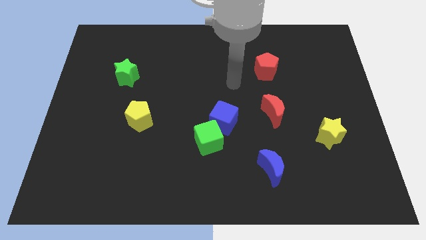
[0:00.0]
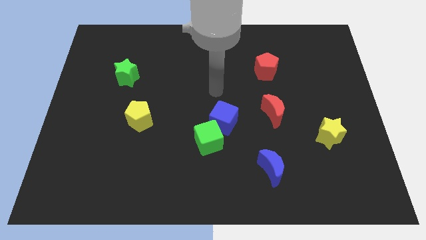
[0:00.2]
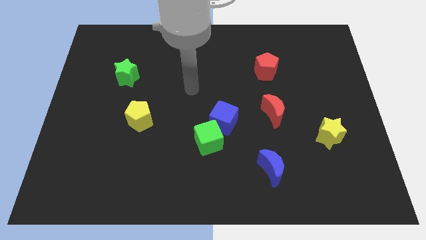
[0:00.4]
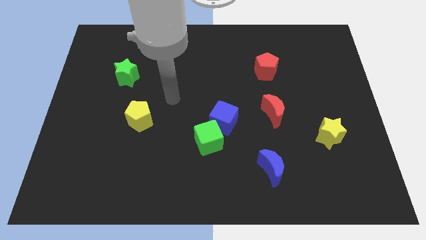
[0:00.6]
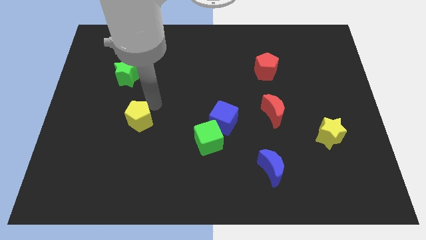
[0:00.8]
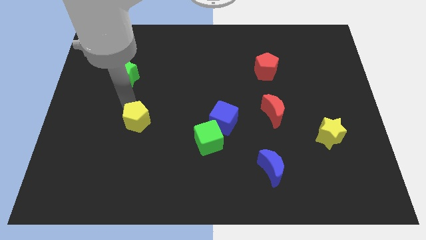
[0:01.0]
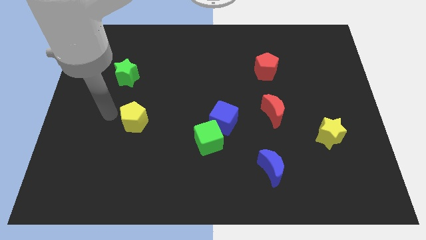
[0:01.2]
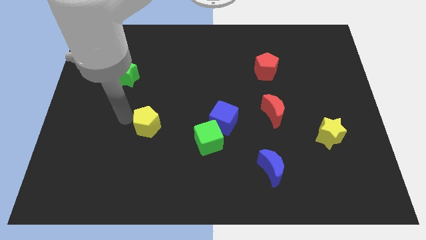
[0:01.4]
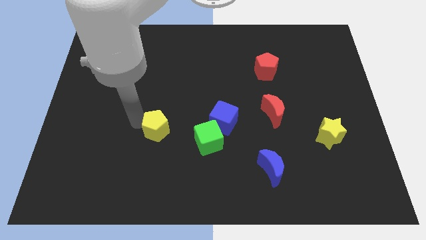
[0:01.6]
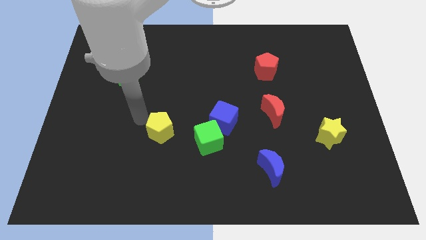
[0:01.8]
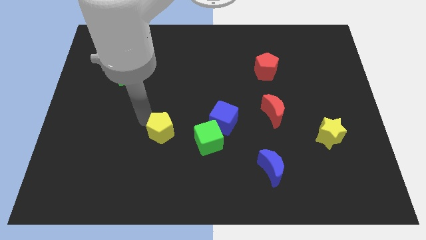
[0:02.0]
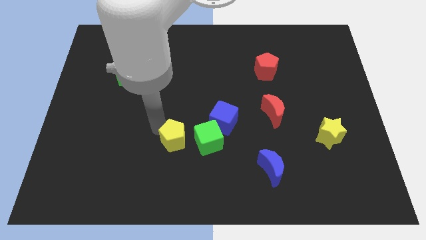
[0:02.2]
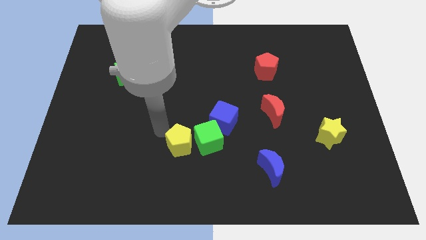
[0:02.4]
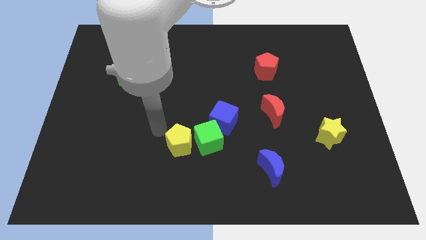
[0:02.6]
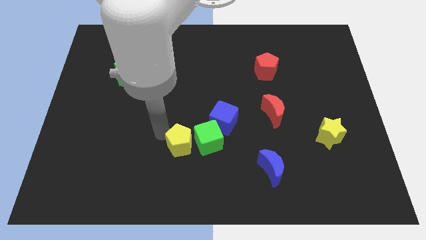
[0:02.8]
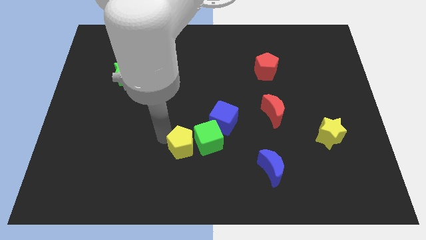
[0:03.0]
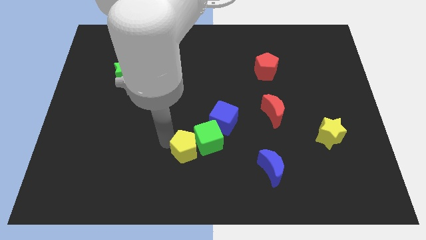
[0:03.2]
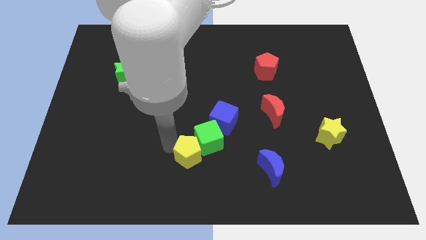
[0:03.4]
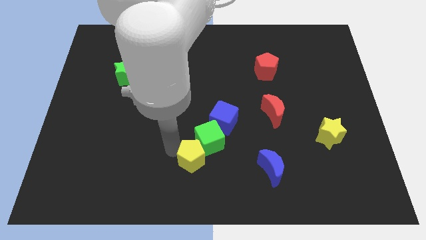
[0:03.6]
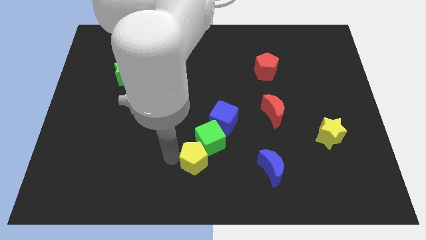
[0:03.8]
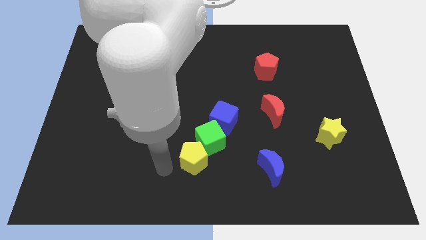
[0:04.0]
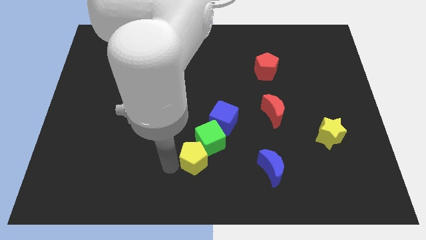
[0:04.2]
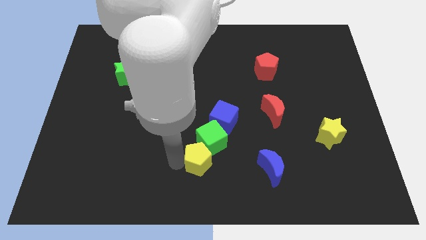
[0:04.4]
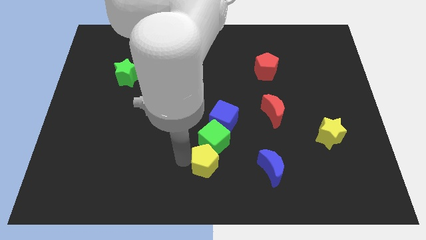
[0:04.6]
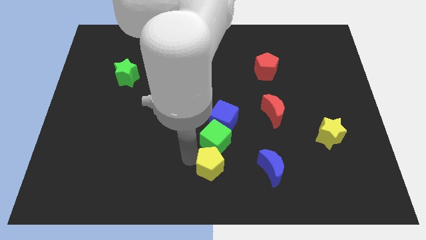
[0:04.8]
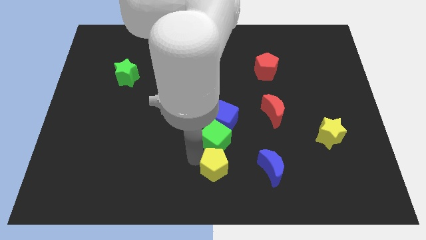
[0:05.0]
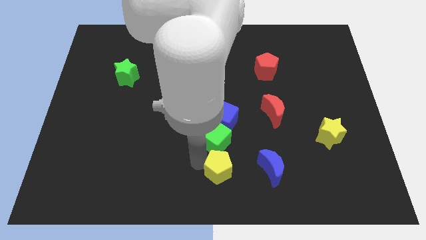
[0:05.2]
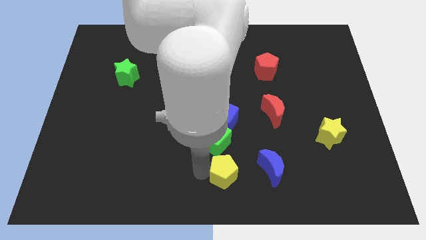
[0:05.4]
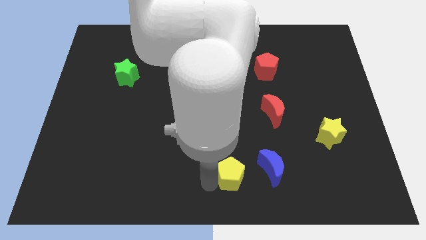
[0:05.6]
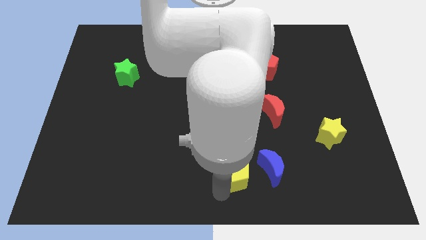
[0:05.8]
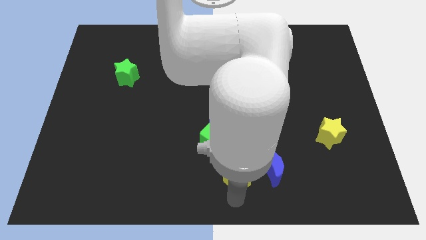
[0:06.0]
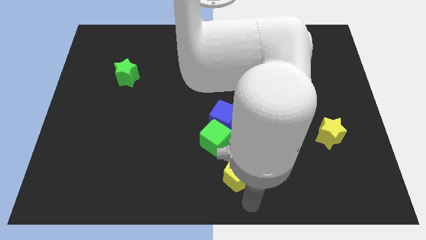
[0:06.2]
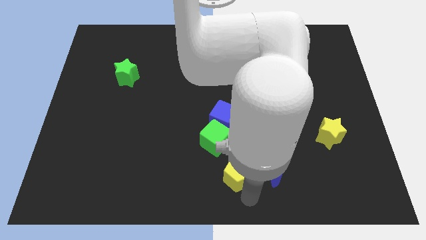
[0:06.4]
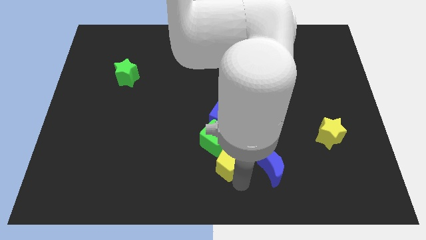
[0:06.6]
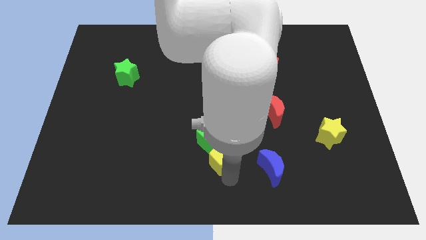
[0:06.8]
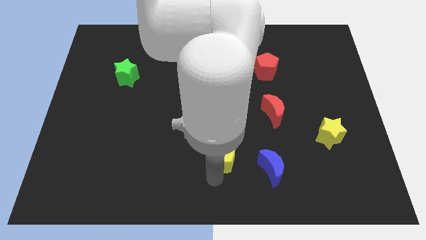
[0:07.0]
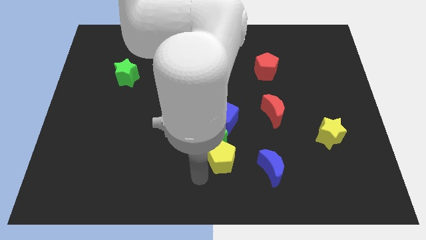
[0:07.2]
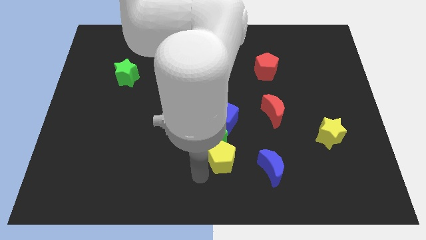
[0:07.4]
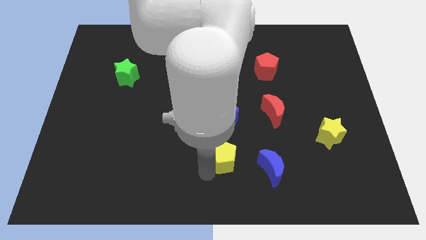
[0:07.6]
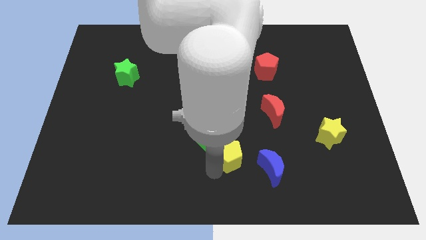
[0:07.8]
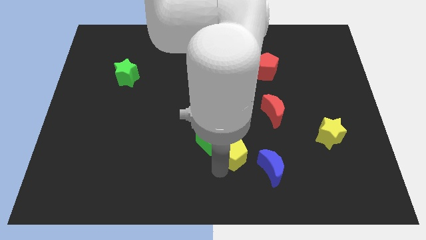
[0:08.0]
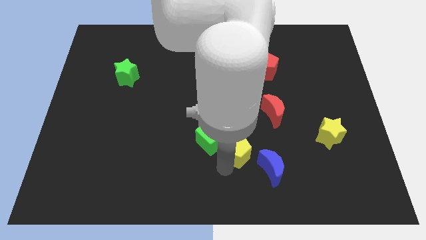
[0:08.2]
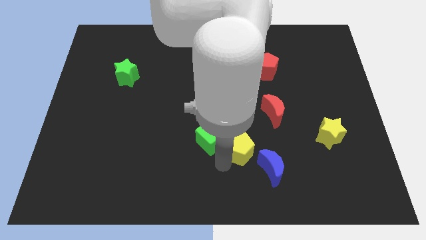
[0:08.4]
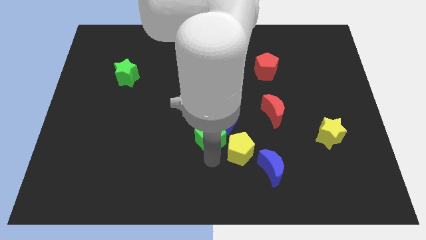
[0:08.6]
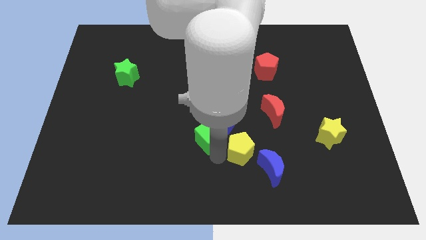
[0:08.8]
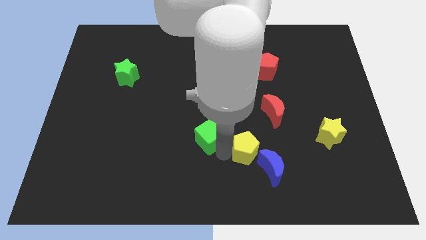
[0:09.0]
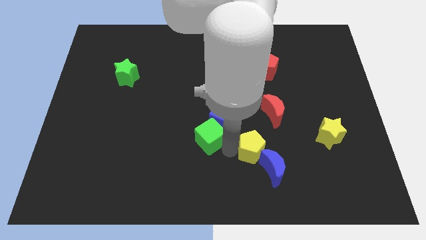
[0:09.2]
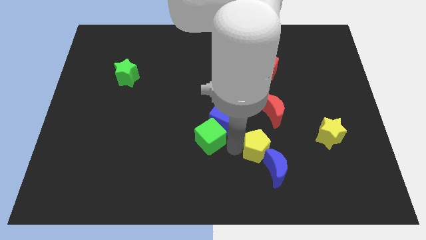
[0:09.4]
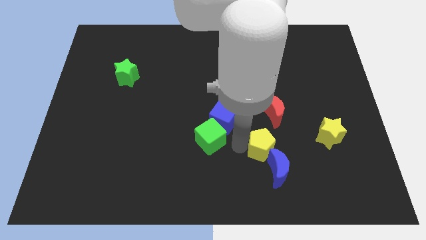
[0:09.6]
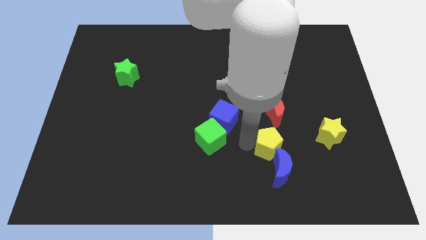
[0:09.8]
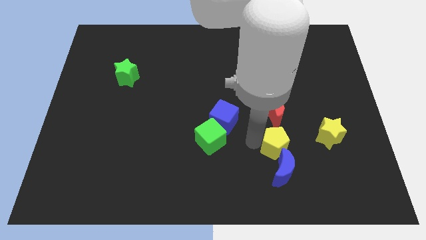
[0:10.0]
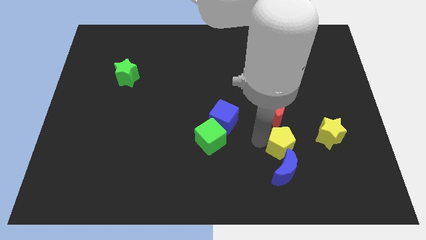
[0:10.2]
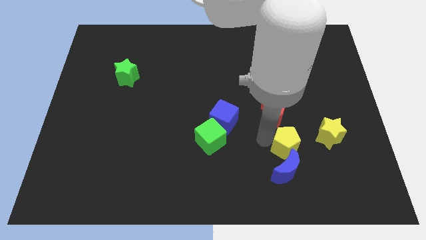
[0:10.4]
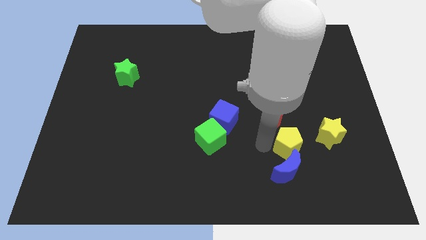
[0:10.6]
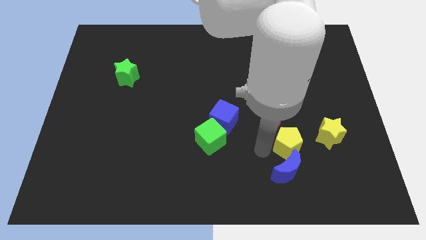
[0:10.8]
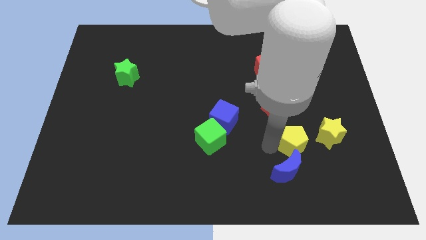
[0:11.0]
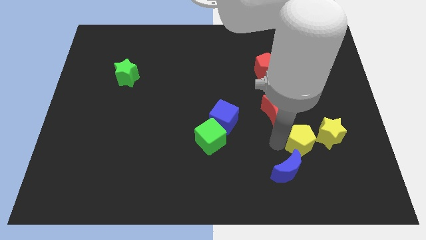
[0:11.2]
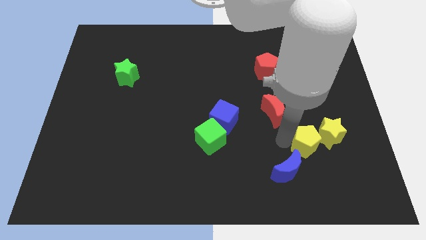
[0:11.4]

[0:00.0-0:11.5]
put the yellow pentagon towards the yellow star
